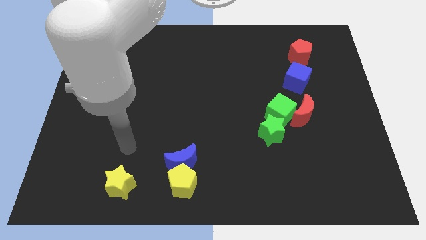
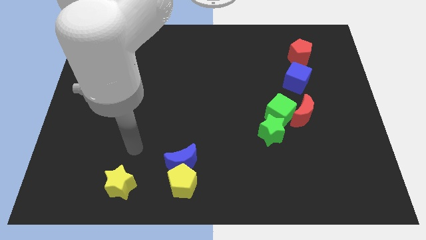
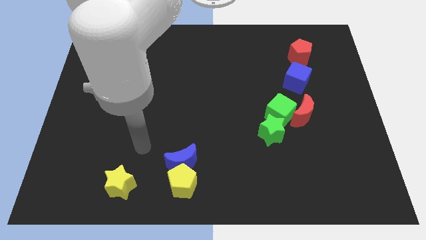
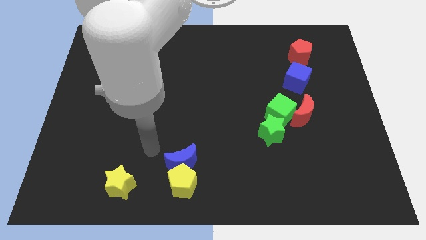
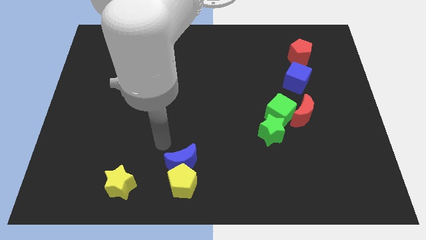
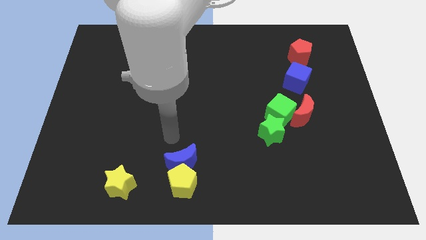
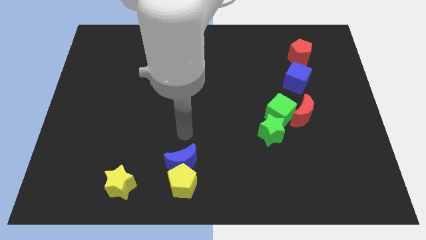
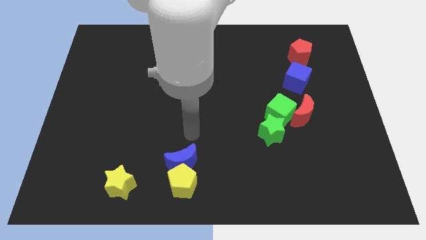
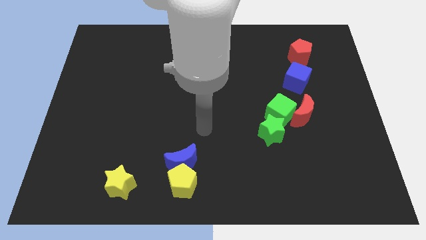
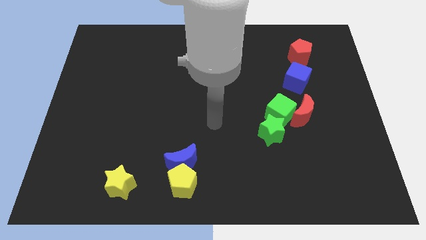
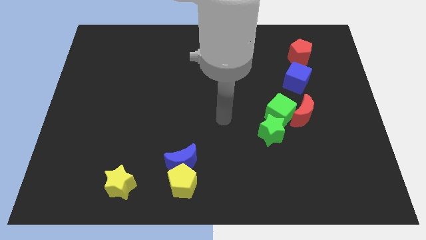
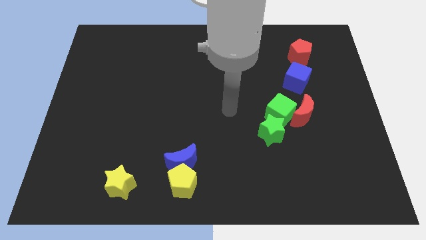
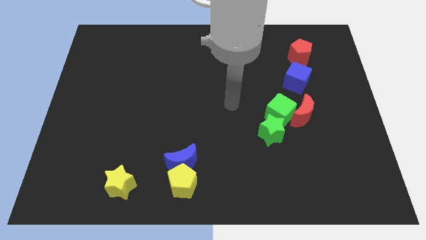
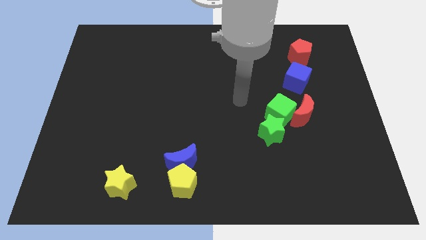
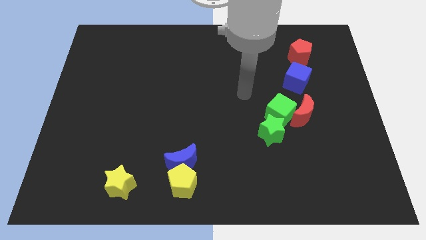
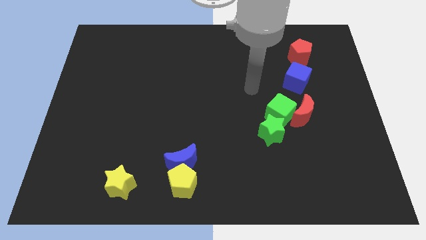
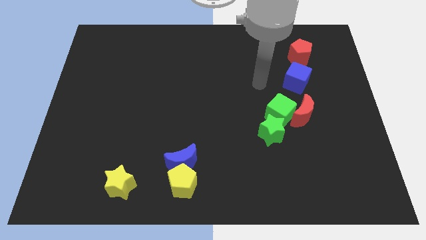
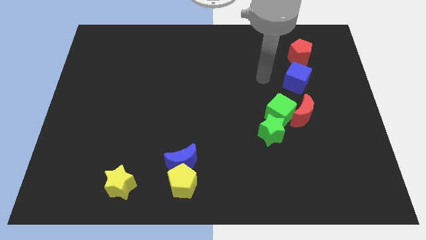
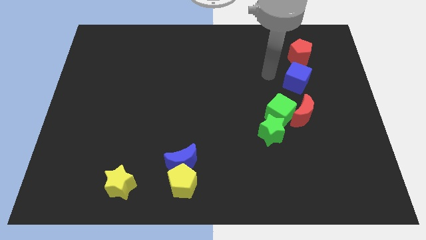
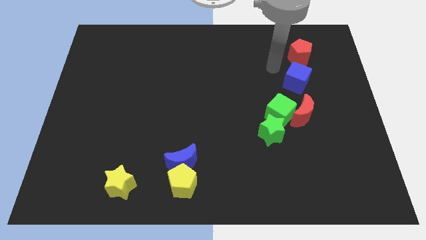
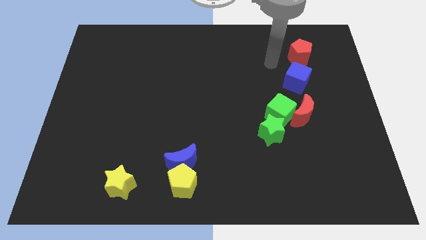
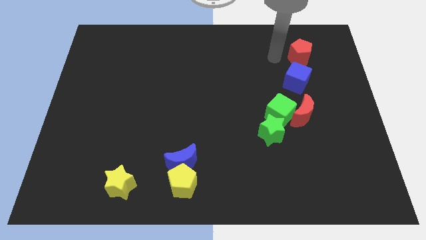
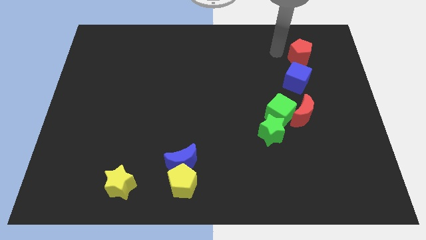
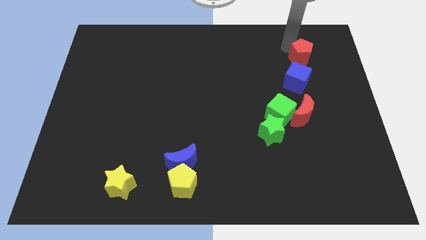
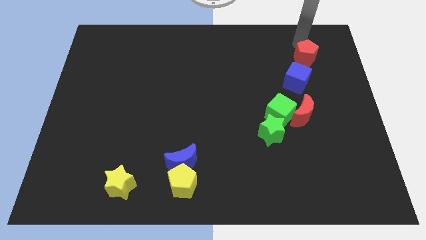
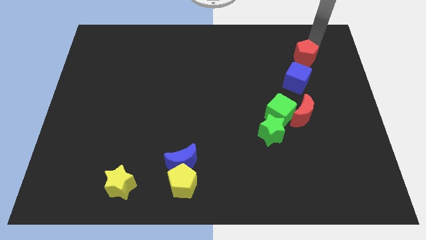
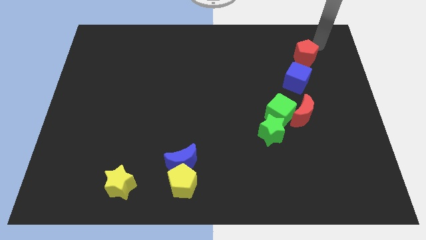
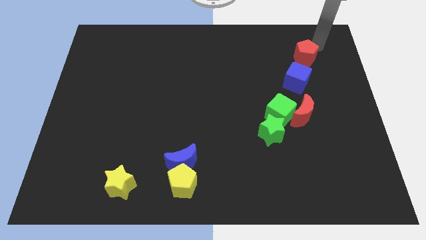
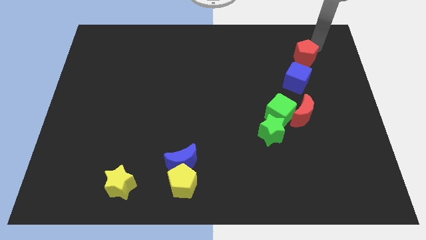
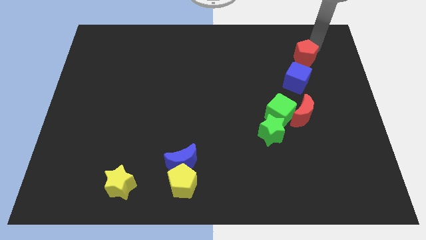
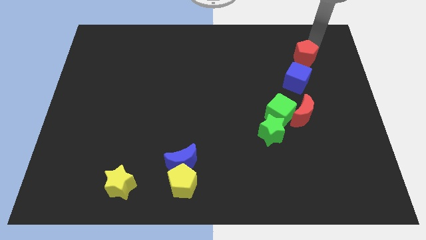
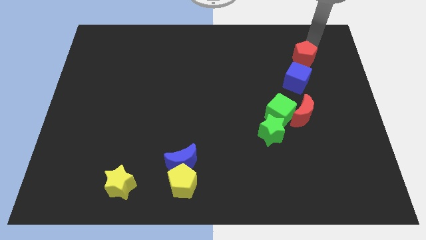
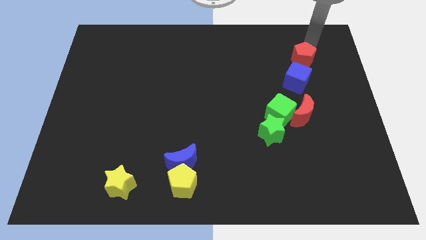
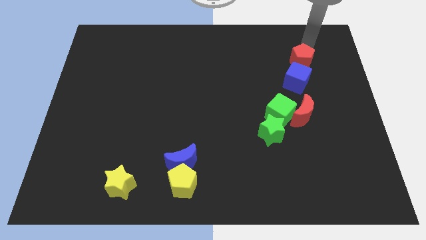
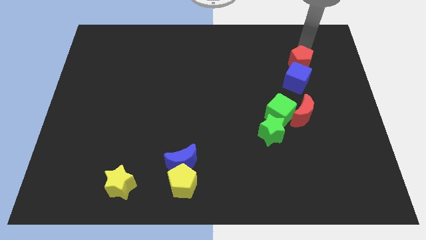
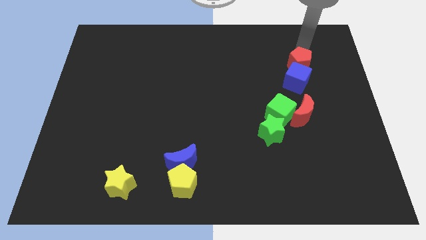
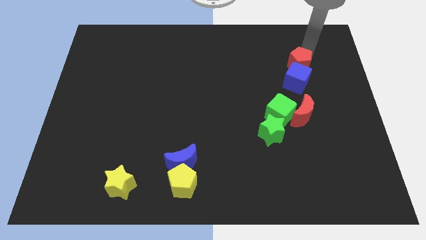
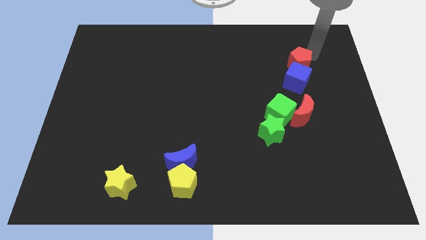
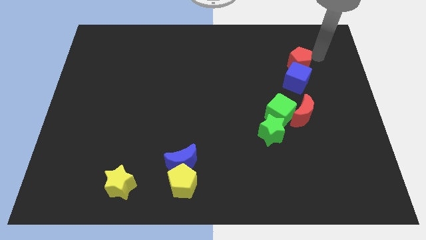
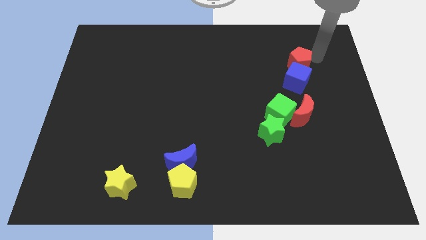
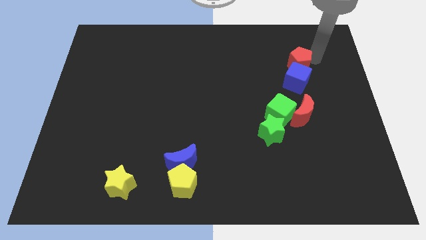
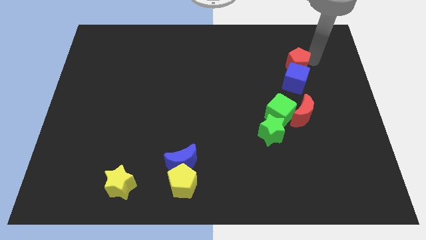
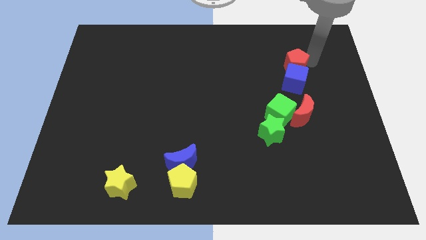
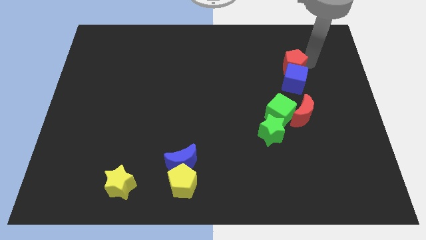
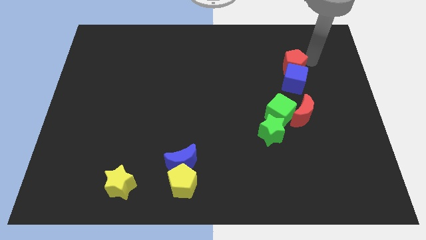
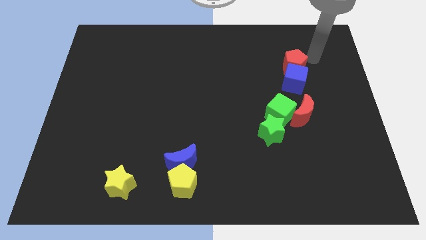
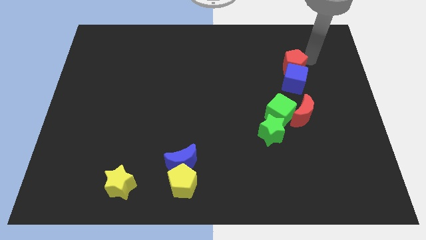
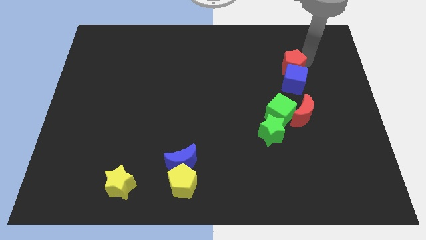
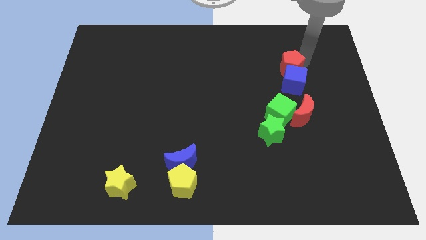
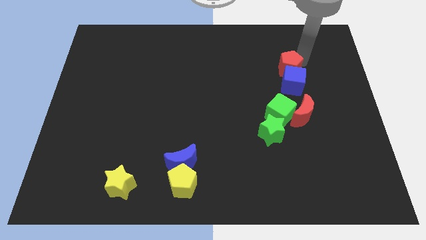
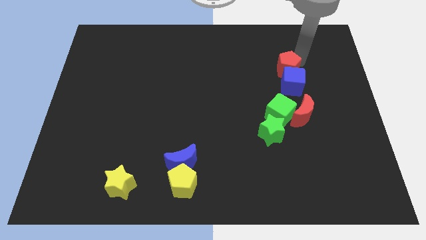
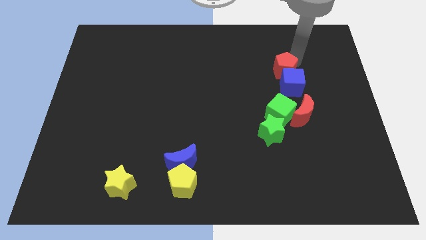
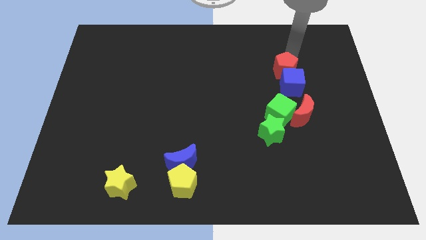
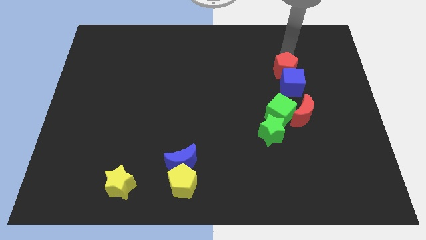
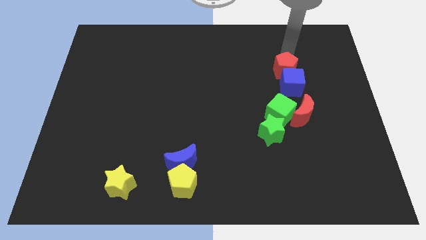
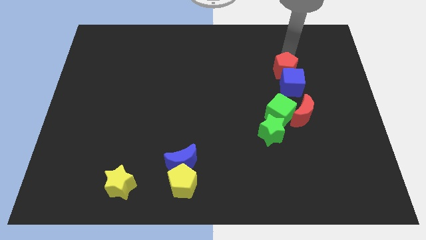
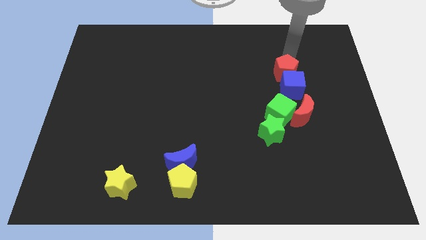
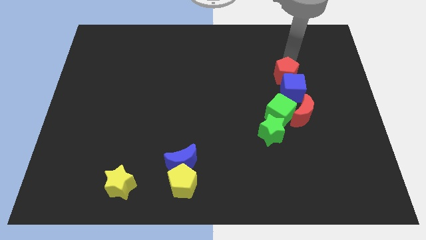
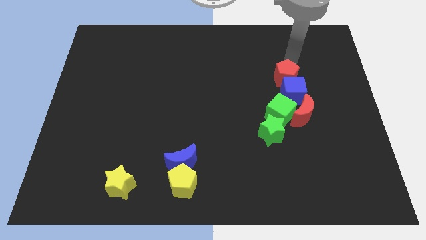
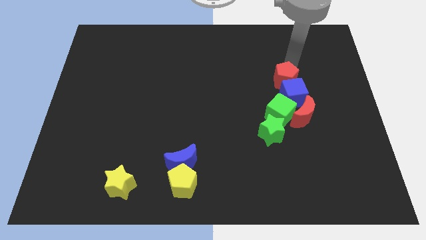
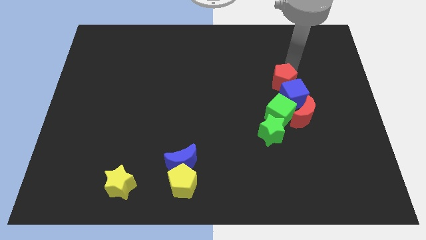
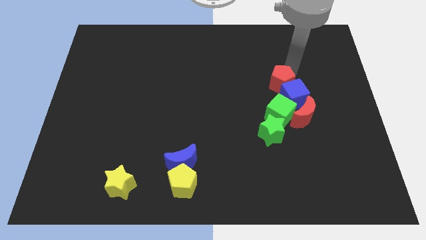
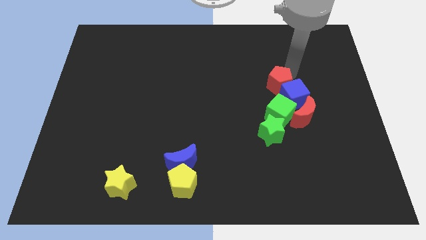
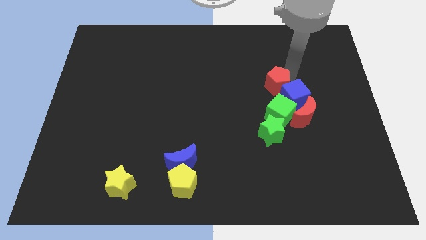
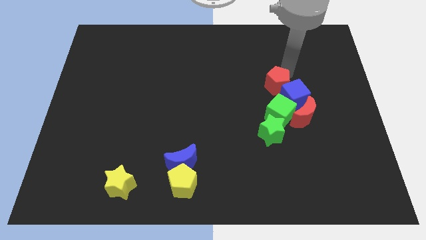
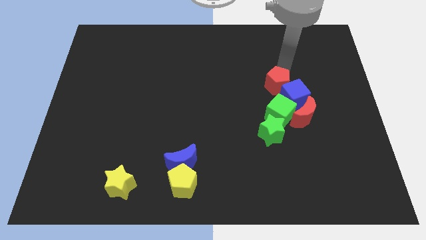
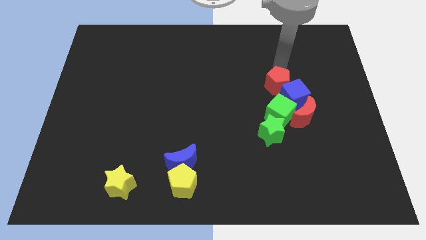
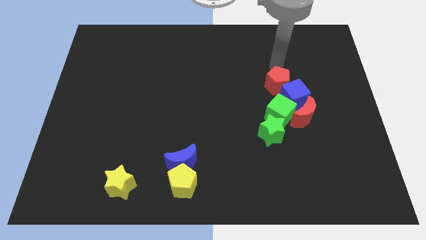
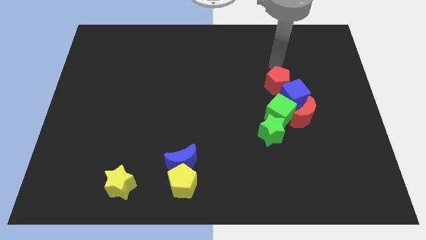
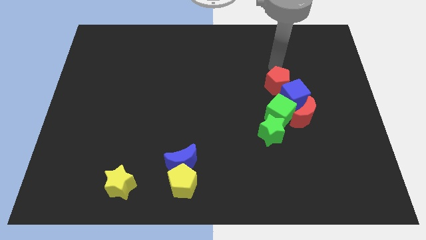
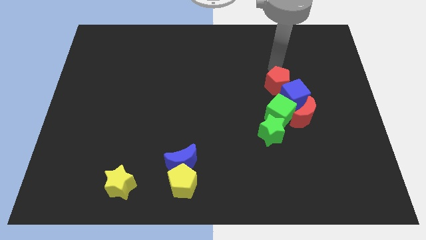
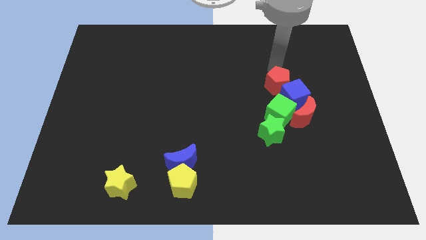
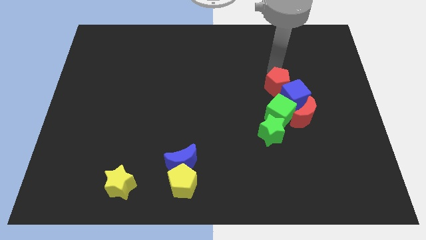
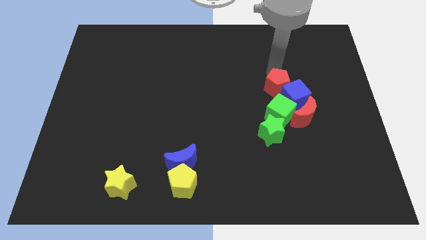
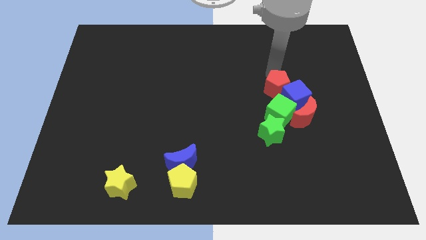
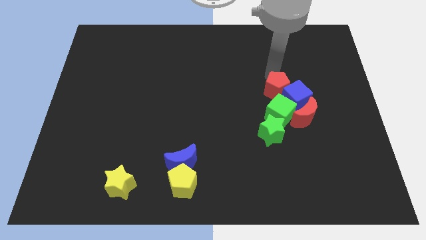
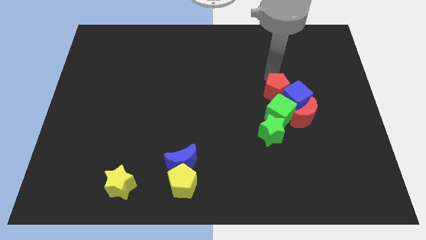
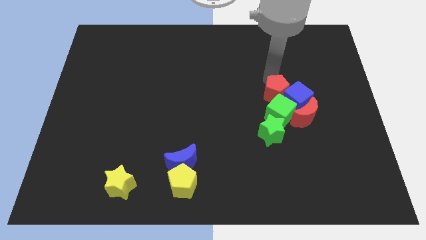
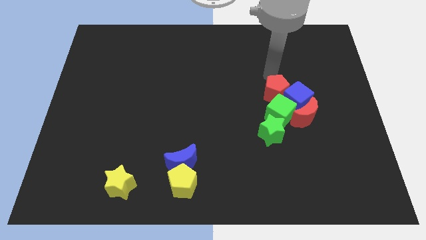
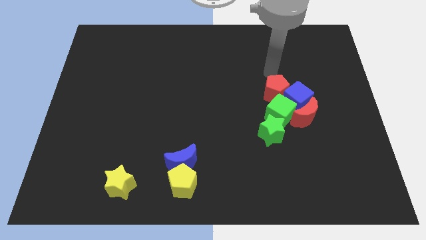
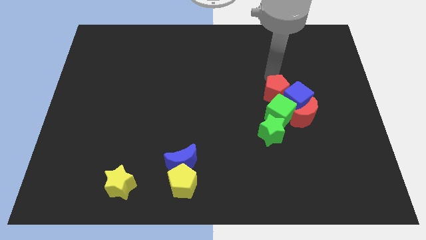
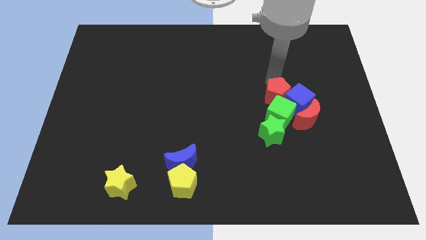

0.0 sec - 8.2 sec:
move the red pentagon close to the green cube
